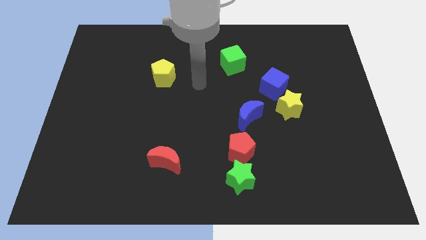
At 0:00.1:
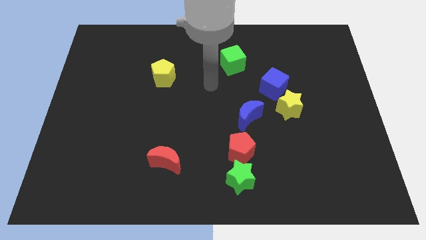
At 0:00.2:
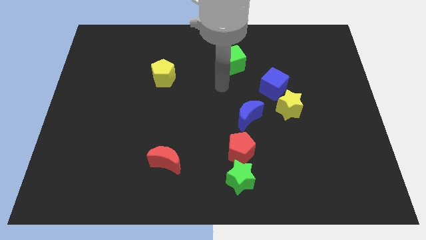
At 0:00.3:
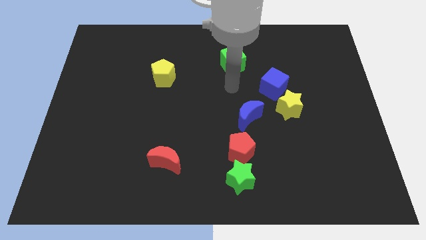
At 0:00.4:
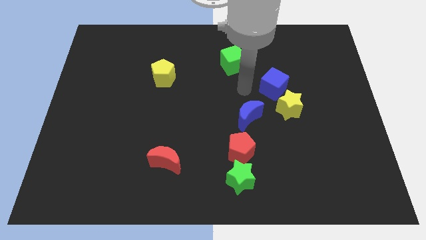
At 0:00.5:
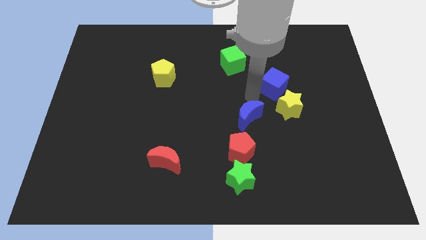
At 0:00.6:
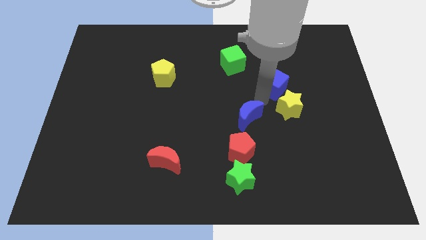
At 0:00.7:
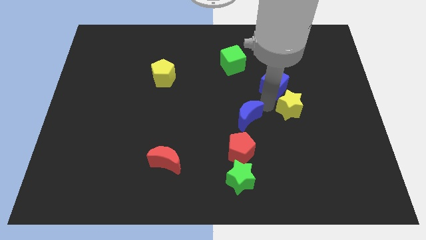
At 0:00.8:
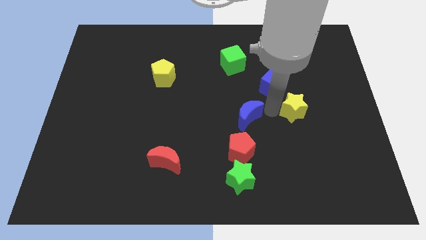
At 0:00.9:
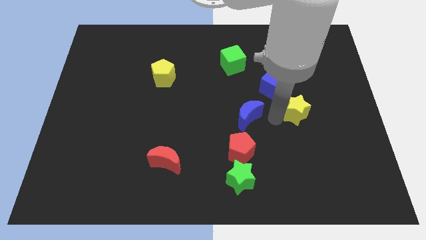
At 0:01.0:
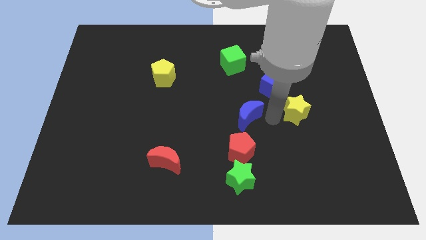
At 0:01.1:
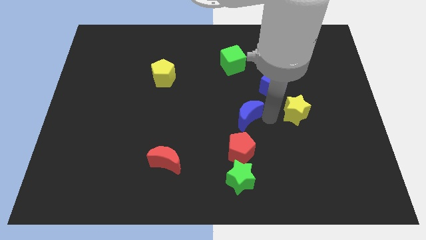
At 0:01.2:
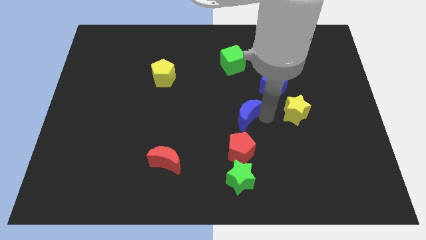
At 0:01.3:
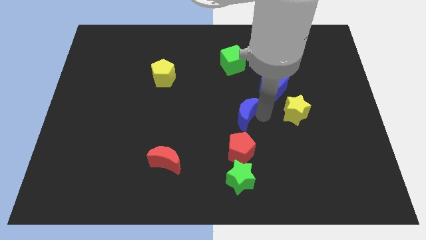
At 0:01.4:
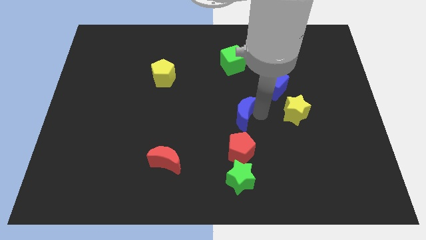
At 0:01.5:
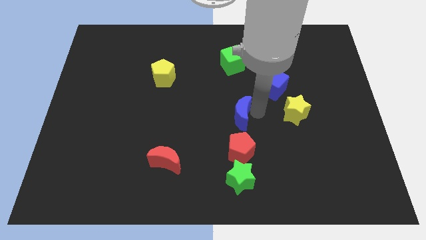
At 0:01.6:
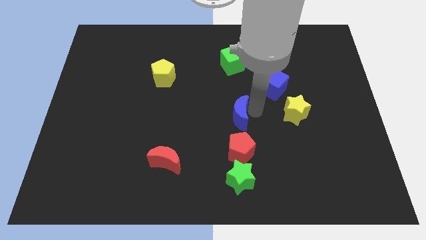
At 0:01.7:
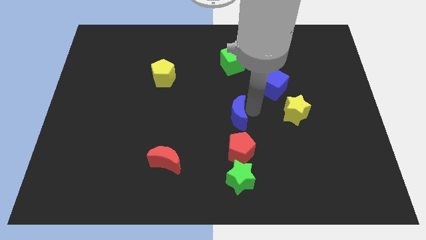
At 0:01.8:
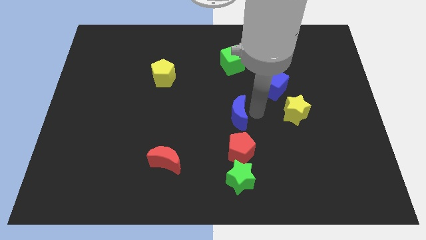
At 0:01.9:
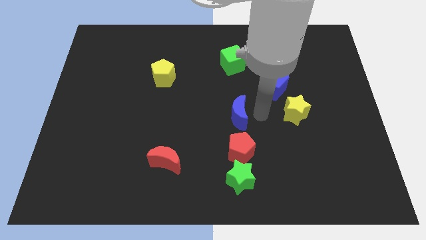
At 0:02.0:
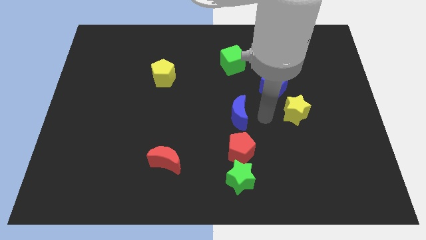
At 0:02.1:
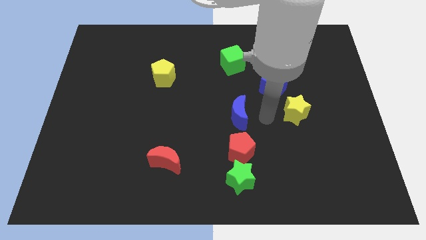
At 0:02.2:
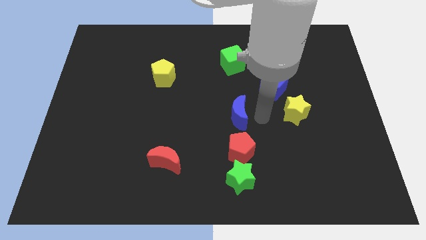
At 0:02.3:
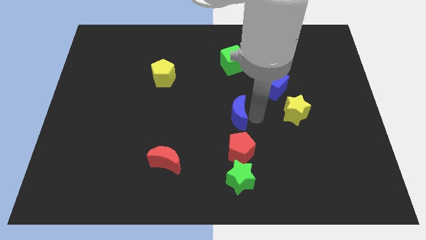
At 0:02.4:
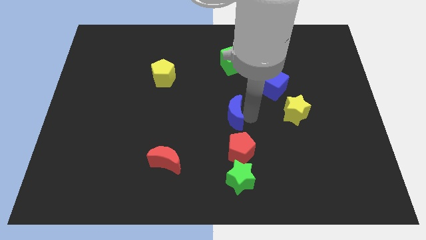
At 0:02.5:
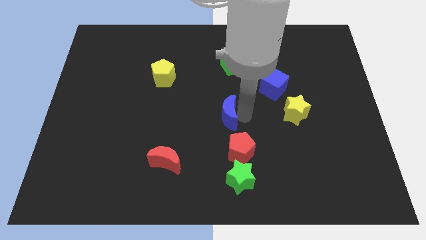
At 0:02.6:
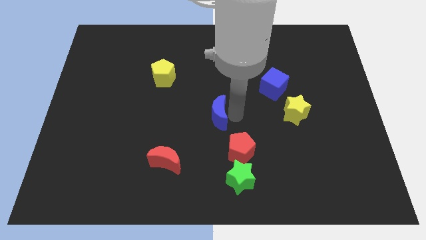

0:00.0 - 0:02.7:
push the blue moon to the left slightly

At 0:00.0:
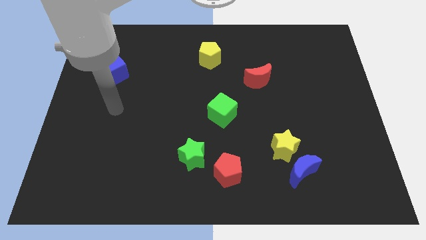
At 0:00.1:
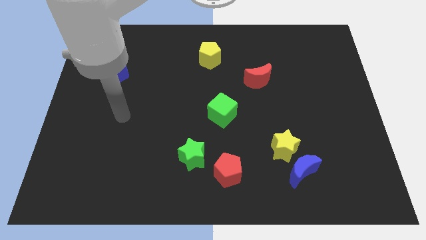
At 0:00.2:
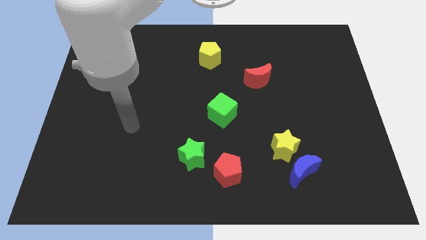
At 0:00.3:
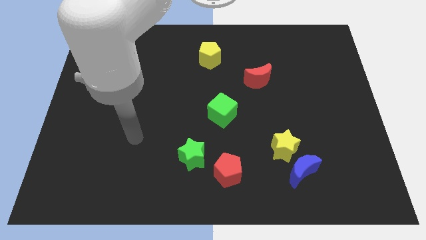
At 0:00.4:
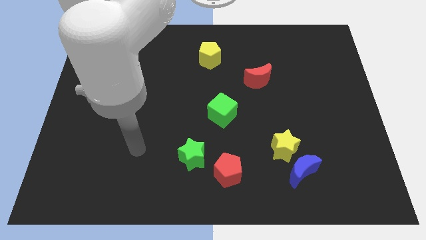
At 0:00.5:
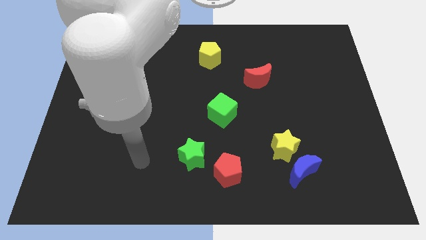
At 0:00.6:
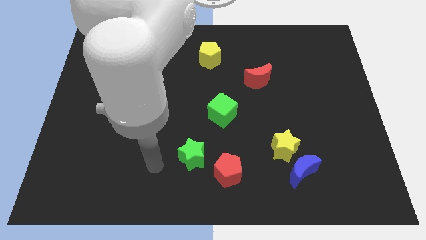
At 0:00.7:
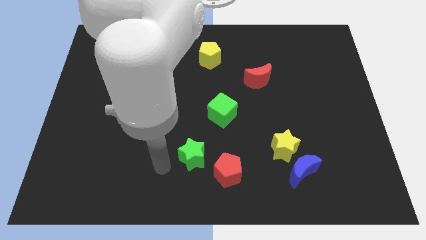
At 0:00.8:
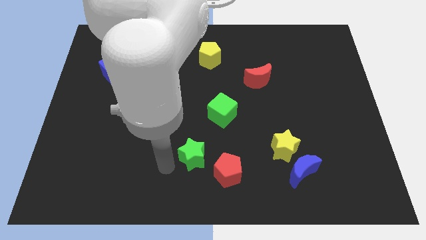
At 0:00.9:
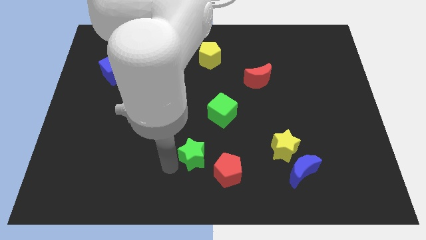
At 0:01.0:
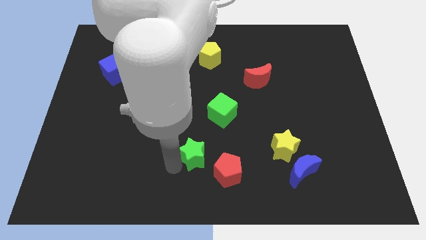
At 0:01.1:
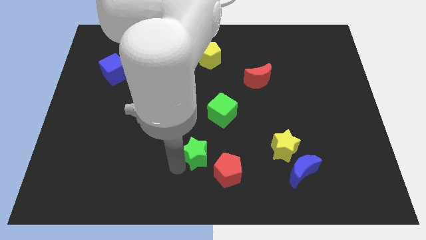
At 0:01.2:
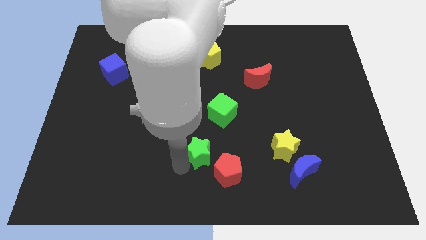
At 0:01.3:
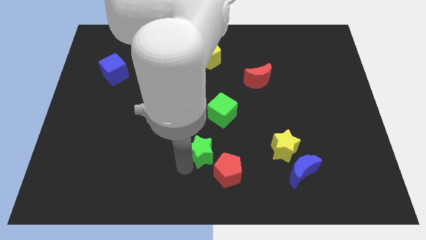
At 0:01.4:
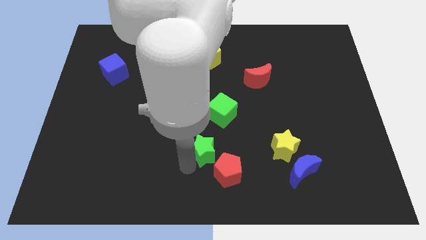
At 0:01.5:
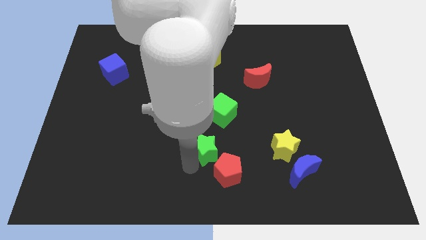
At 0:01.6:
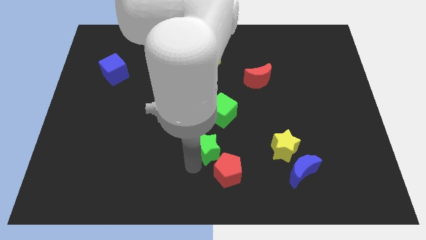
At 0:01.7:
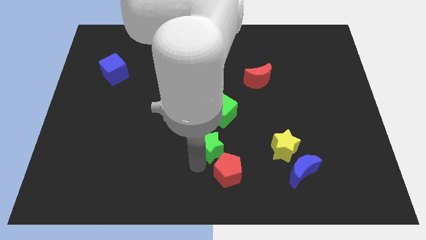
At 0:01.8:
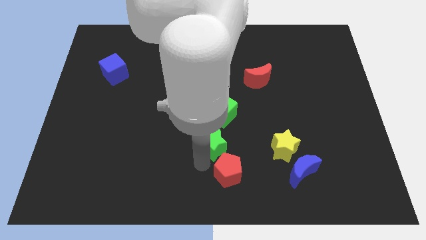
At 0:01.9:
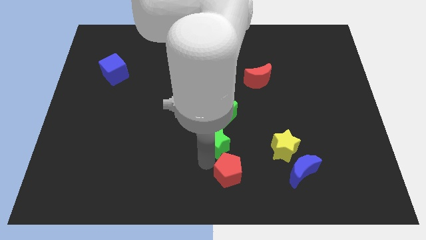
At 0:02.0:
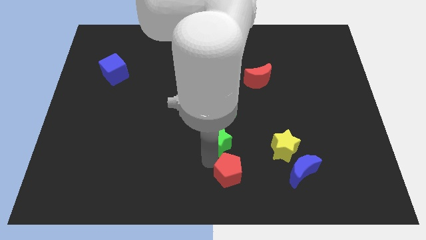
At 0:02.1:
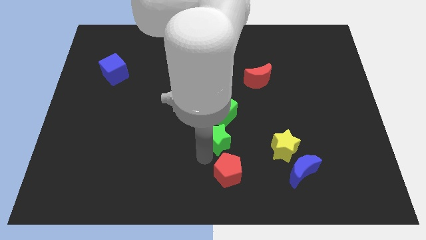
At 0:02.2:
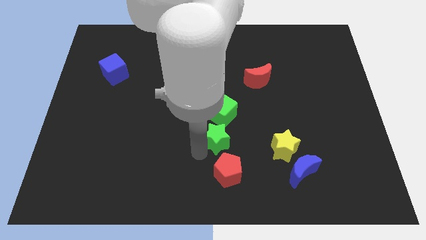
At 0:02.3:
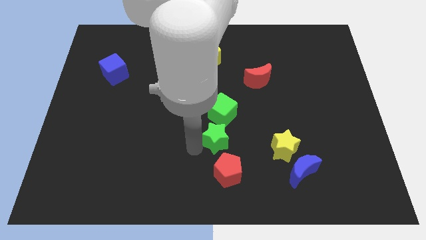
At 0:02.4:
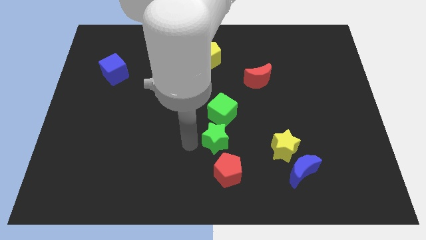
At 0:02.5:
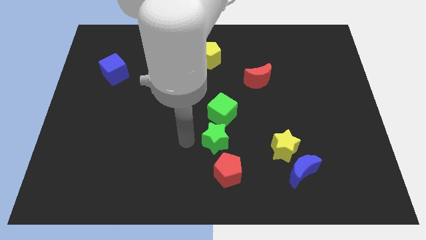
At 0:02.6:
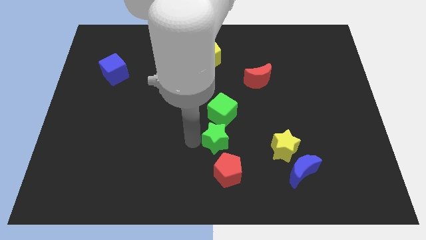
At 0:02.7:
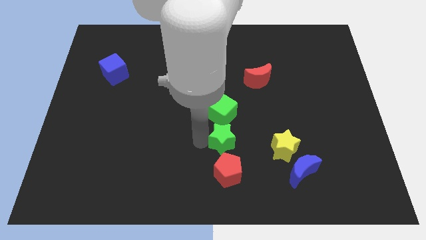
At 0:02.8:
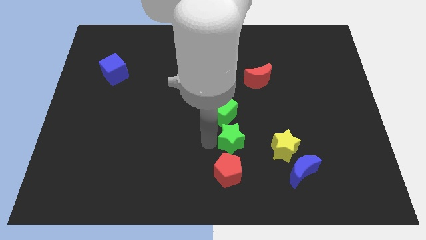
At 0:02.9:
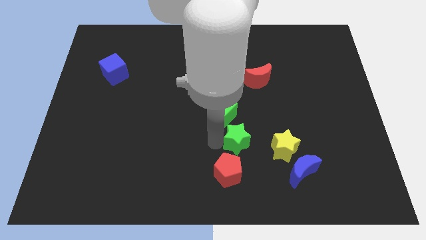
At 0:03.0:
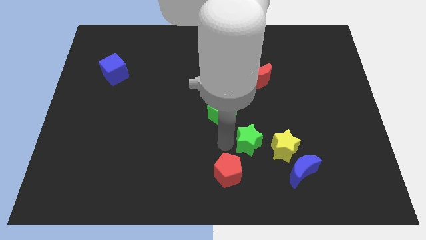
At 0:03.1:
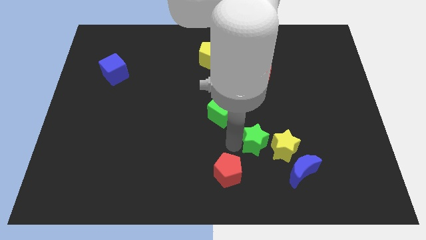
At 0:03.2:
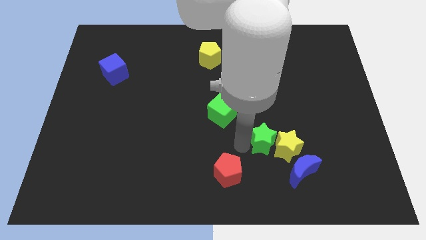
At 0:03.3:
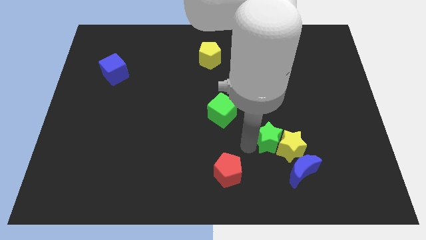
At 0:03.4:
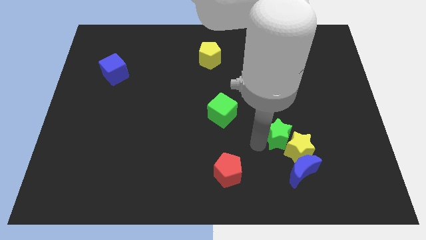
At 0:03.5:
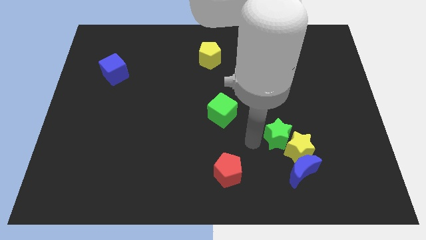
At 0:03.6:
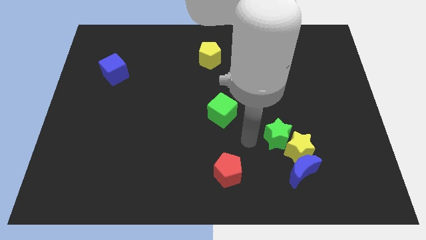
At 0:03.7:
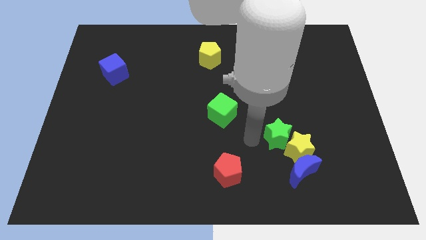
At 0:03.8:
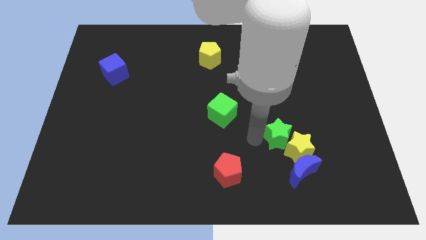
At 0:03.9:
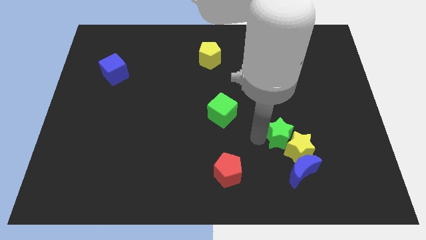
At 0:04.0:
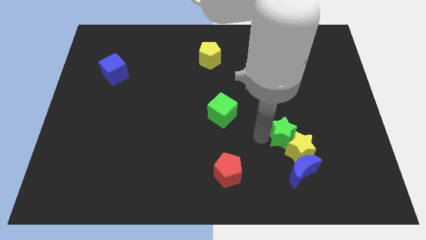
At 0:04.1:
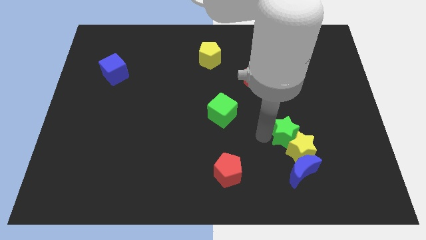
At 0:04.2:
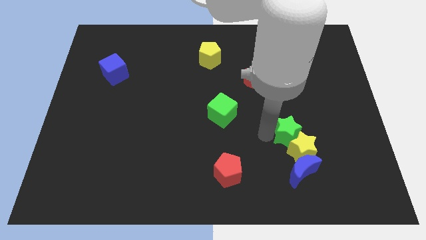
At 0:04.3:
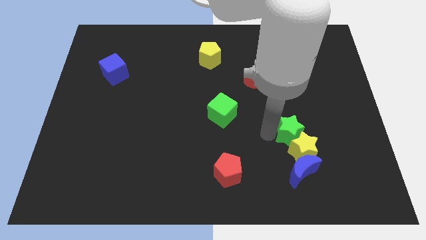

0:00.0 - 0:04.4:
push the green star to the right

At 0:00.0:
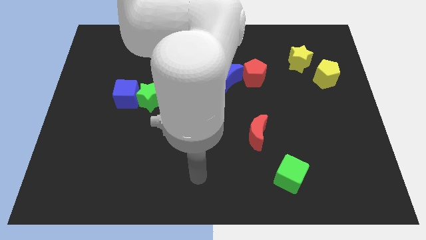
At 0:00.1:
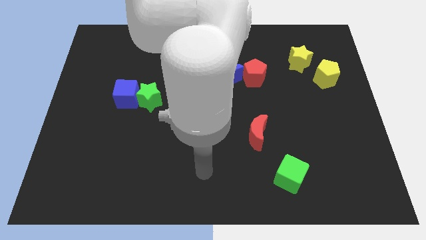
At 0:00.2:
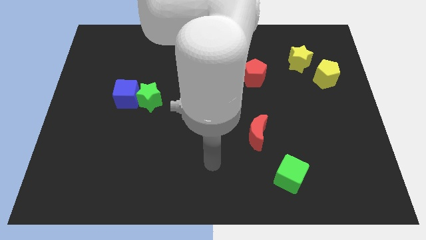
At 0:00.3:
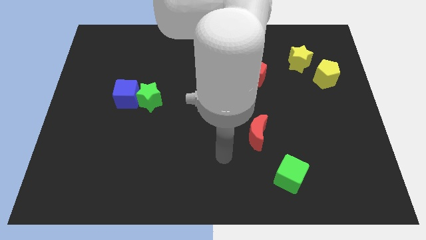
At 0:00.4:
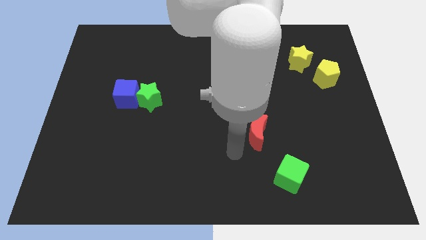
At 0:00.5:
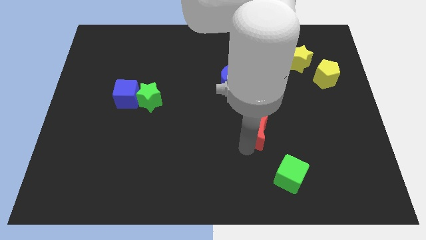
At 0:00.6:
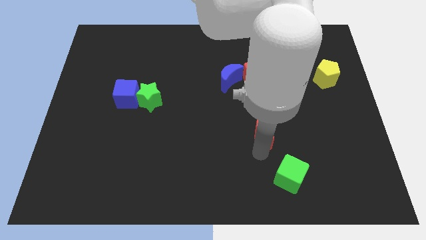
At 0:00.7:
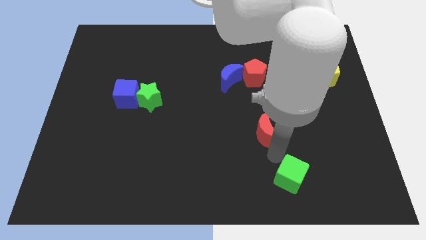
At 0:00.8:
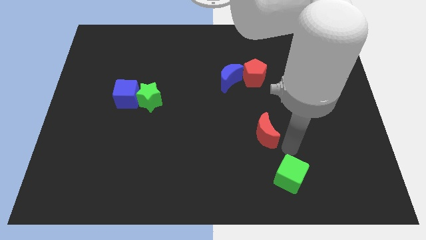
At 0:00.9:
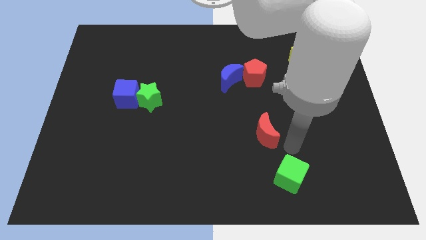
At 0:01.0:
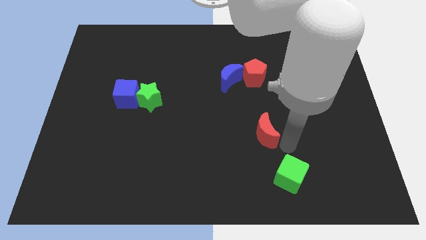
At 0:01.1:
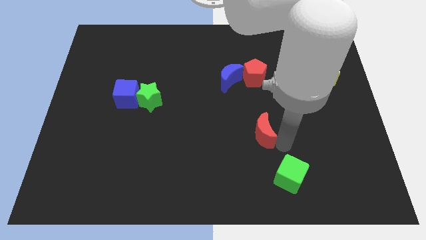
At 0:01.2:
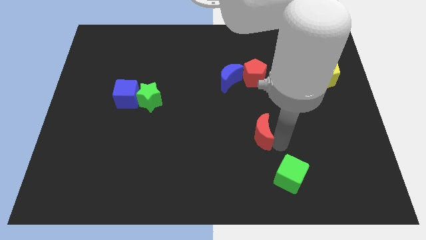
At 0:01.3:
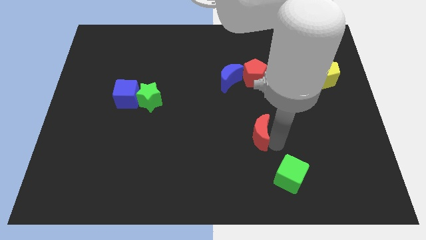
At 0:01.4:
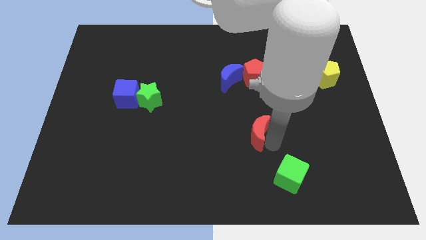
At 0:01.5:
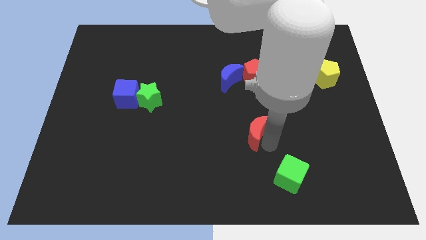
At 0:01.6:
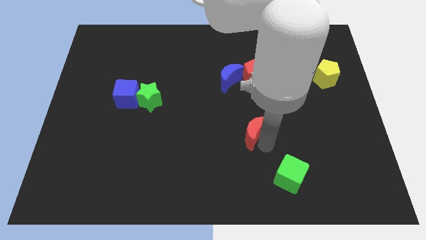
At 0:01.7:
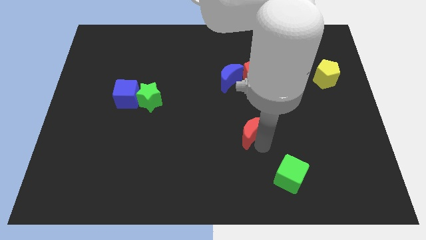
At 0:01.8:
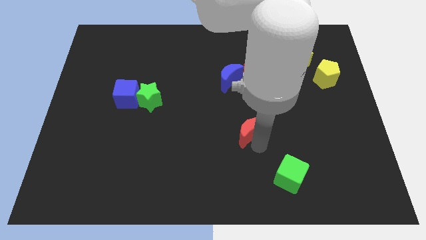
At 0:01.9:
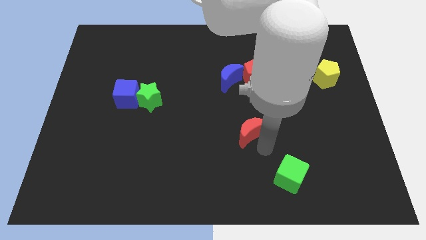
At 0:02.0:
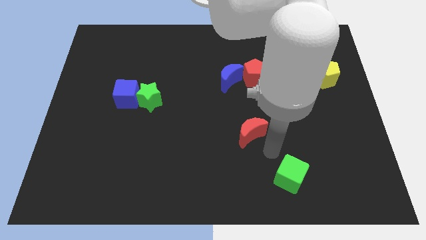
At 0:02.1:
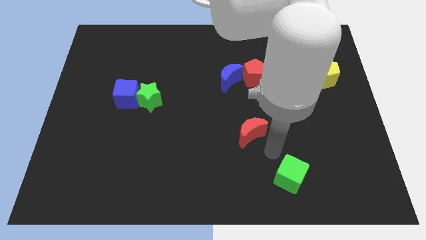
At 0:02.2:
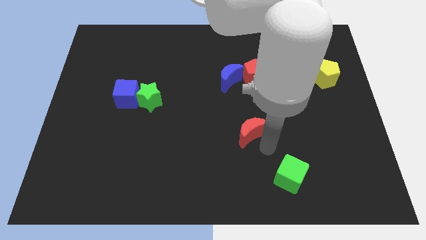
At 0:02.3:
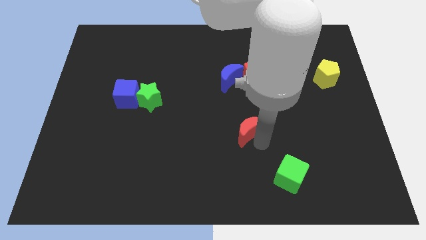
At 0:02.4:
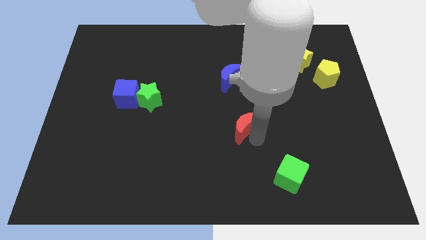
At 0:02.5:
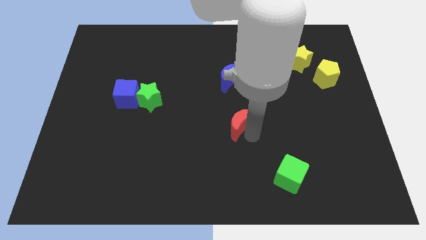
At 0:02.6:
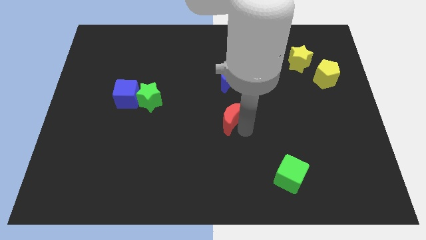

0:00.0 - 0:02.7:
slide the red moon somewhat up and left